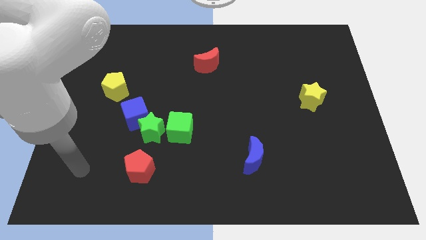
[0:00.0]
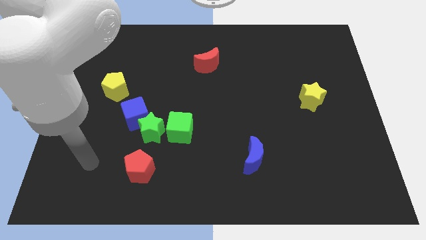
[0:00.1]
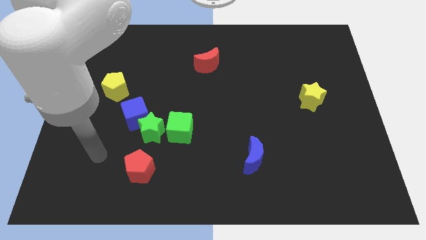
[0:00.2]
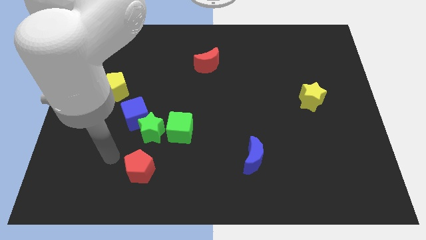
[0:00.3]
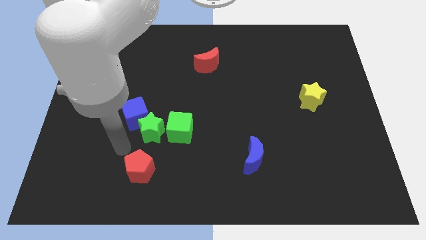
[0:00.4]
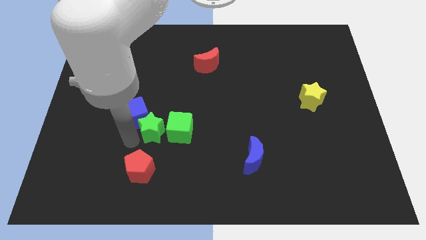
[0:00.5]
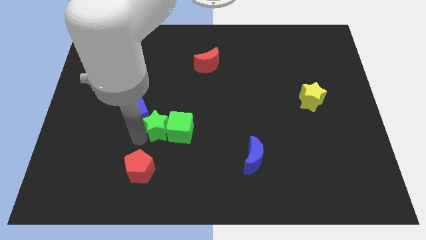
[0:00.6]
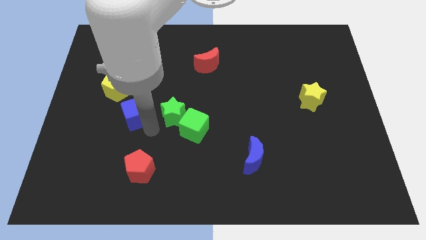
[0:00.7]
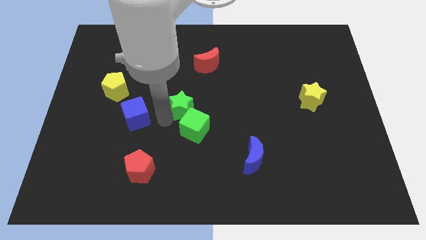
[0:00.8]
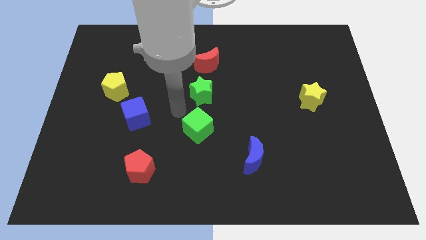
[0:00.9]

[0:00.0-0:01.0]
separate the green cube from the green star

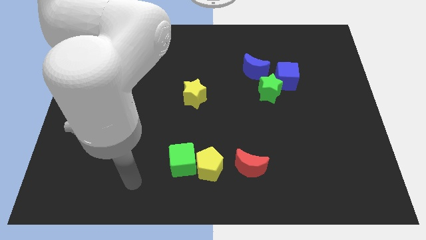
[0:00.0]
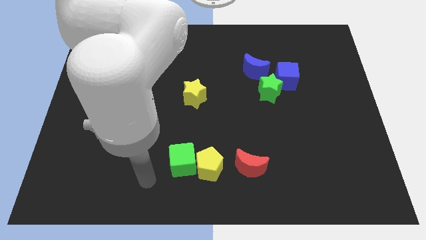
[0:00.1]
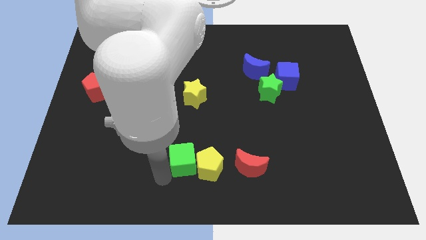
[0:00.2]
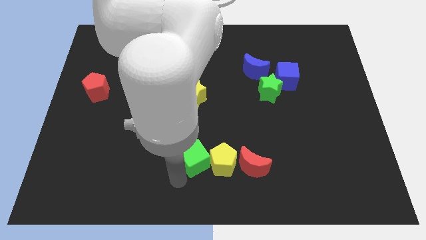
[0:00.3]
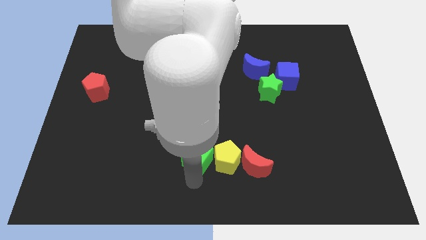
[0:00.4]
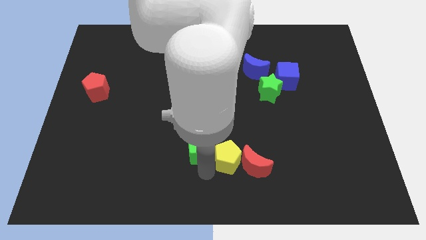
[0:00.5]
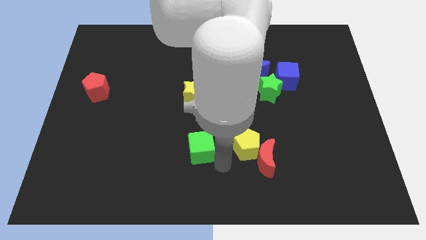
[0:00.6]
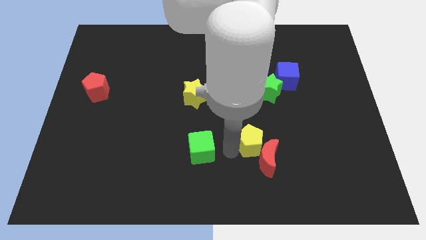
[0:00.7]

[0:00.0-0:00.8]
pull the green cube apart from the yellow pentagon

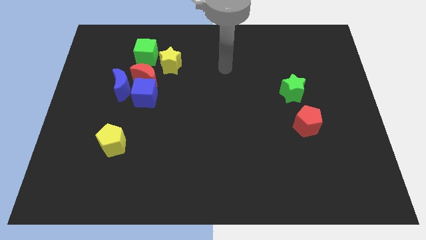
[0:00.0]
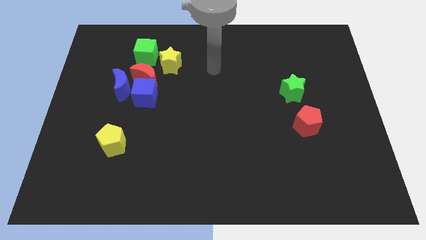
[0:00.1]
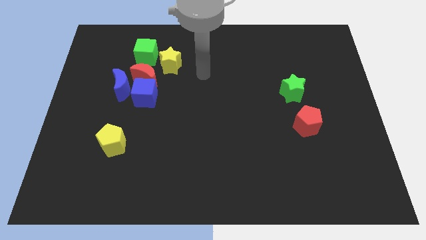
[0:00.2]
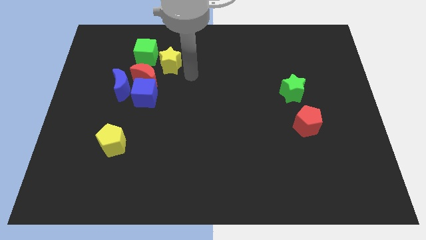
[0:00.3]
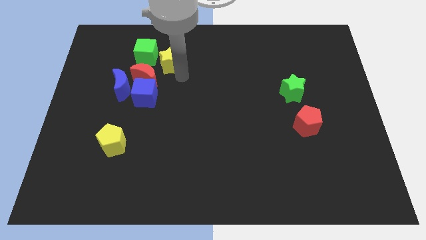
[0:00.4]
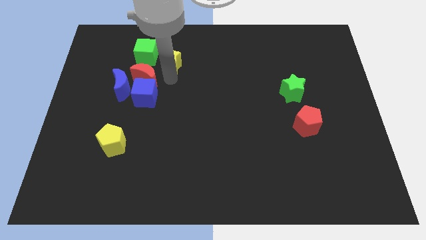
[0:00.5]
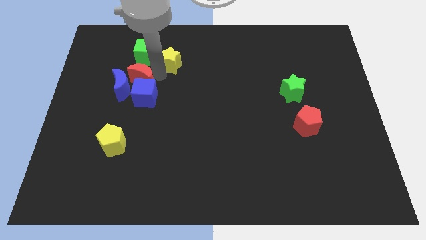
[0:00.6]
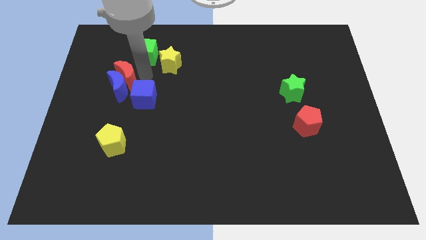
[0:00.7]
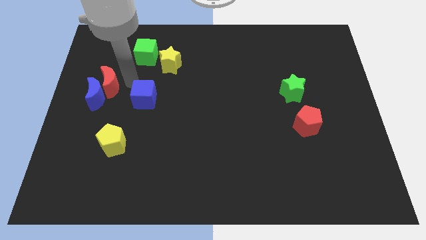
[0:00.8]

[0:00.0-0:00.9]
move the blue cube away from the red moon and blue moon

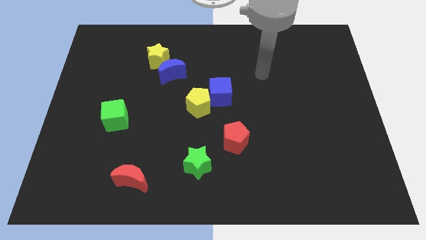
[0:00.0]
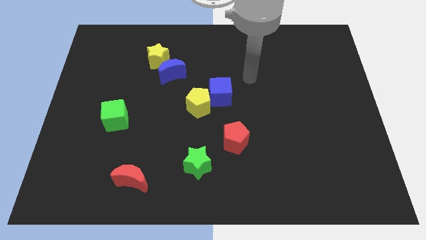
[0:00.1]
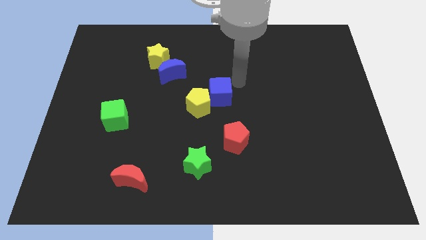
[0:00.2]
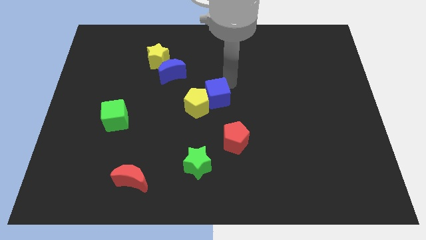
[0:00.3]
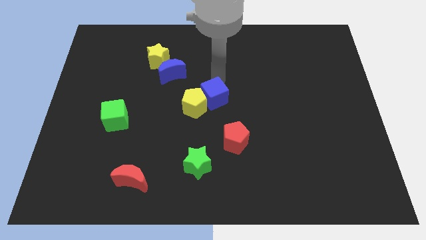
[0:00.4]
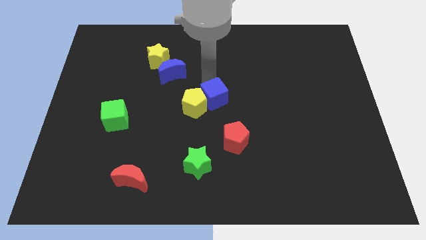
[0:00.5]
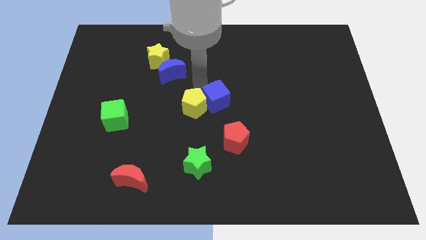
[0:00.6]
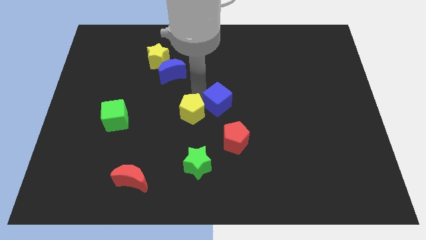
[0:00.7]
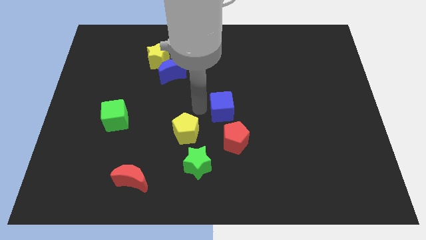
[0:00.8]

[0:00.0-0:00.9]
move the blue cube away from the yellow pentagon

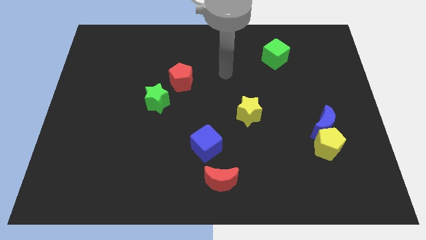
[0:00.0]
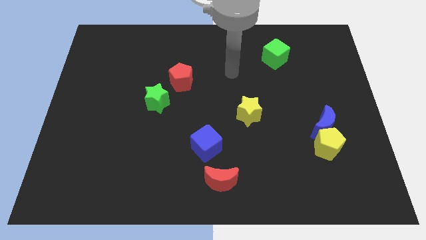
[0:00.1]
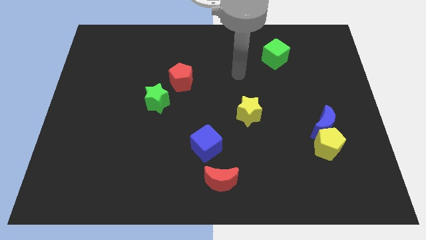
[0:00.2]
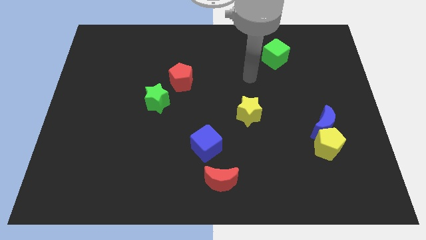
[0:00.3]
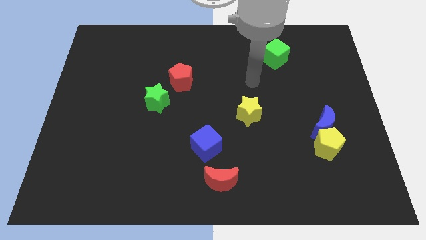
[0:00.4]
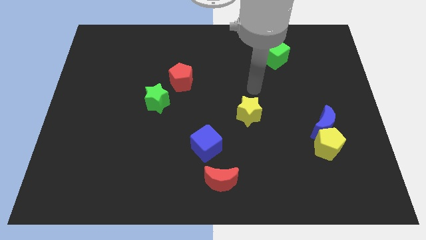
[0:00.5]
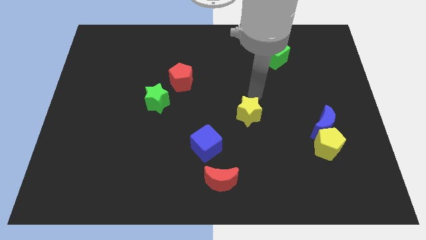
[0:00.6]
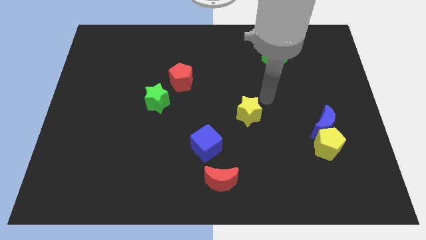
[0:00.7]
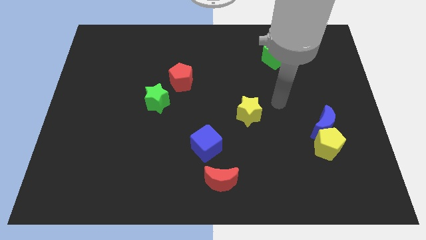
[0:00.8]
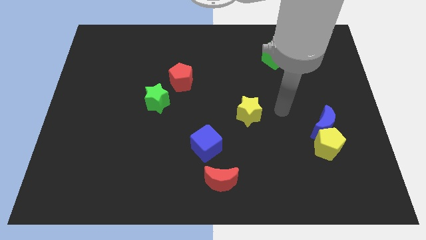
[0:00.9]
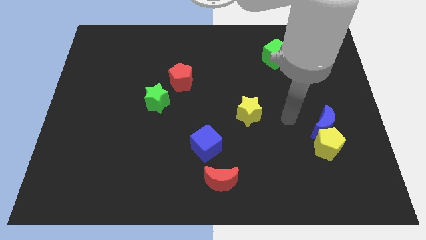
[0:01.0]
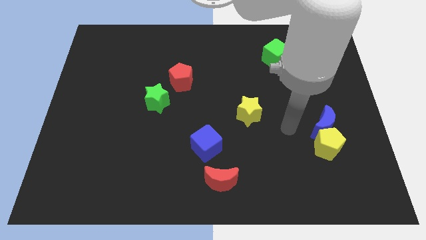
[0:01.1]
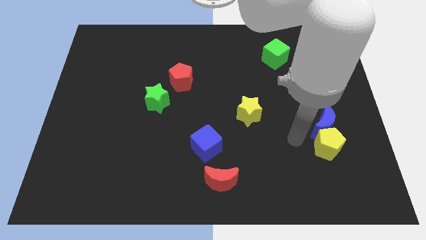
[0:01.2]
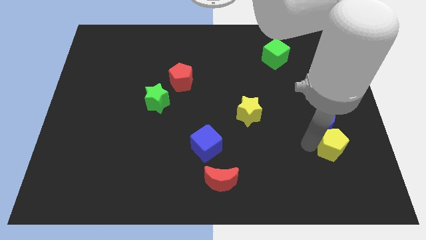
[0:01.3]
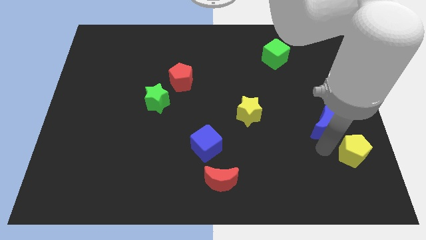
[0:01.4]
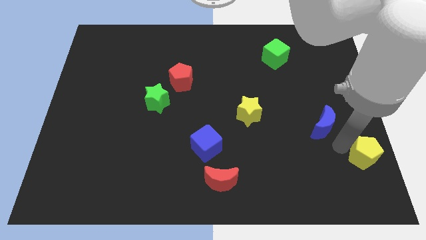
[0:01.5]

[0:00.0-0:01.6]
move the blue moon away from the yellow pentagon

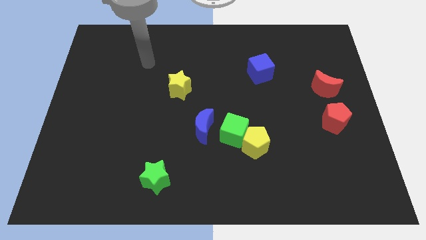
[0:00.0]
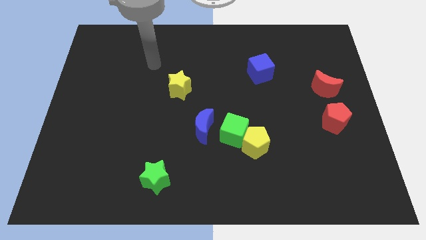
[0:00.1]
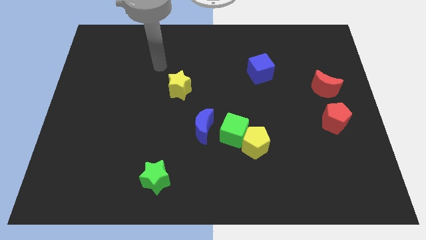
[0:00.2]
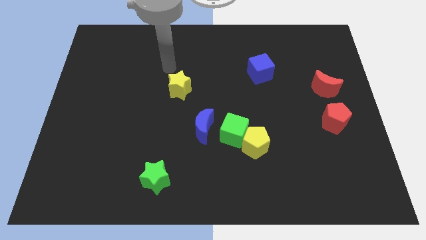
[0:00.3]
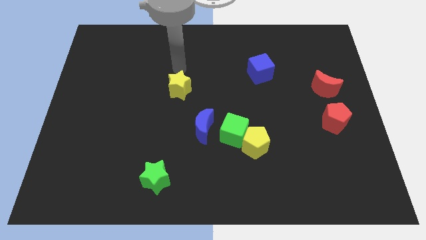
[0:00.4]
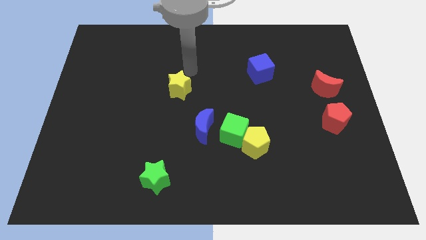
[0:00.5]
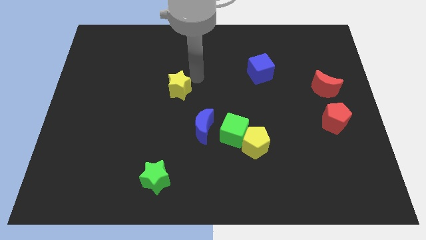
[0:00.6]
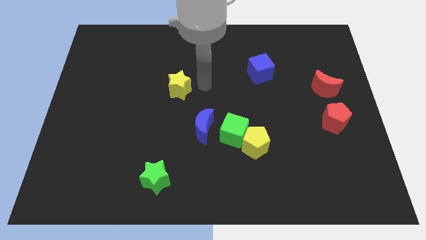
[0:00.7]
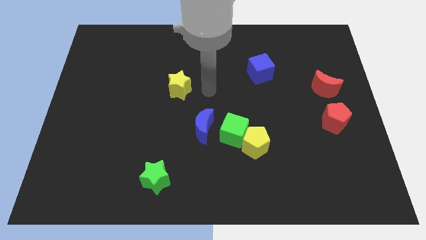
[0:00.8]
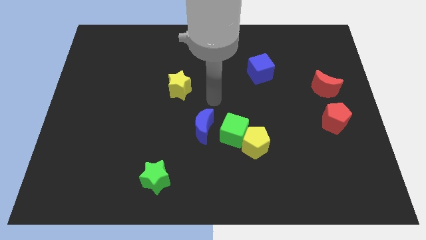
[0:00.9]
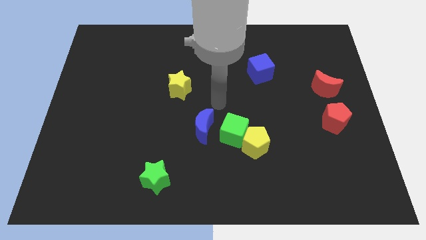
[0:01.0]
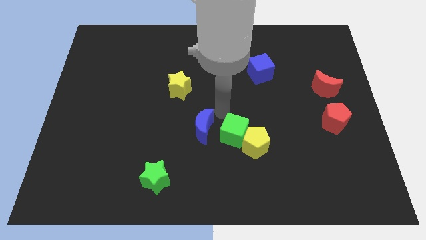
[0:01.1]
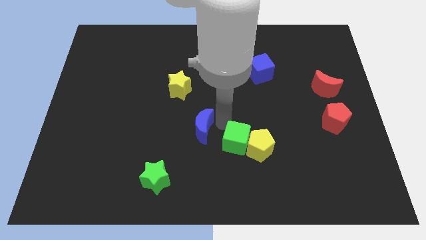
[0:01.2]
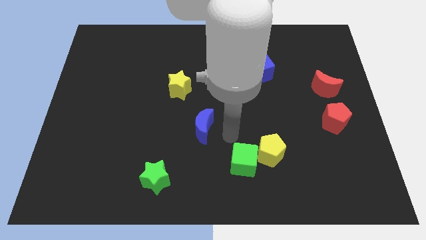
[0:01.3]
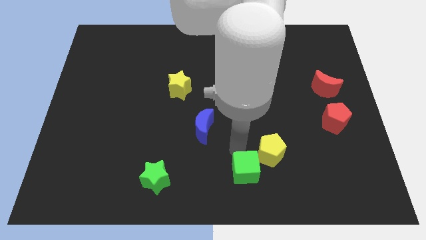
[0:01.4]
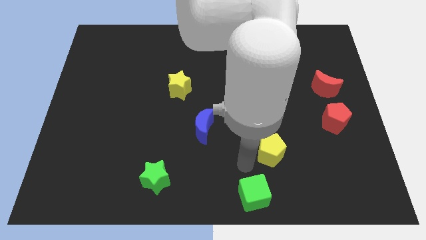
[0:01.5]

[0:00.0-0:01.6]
separate the yellow pentagon from the green cube

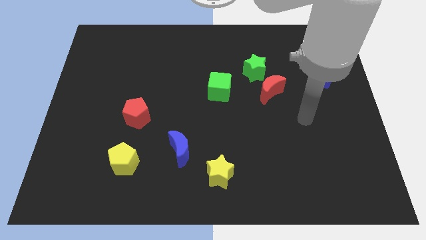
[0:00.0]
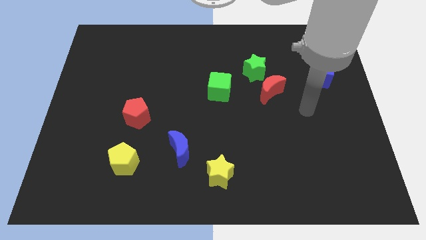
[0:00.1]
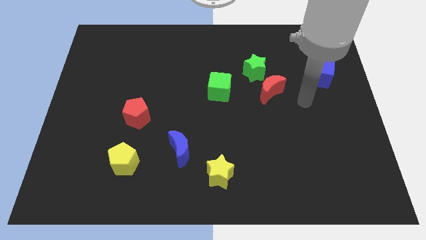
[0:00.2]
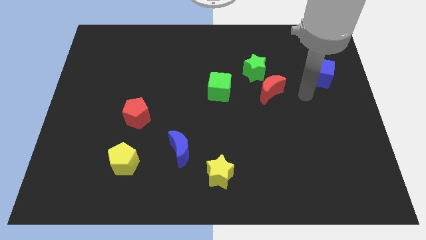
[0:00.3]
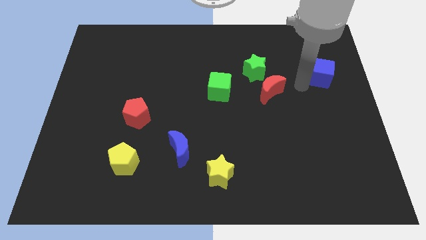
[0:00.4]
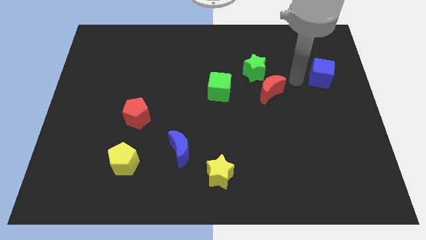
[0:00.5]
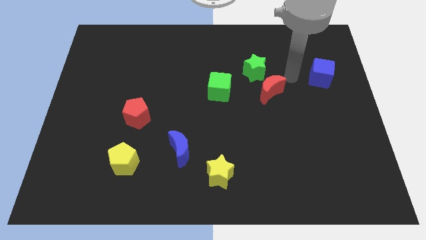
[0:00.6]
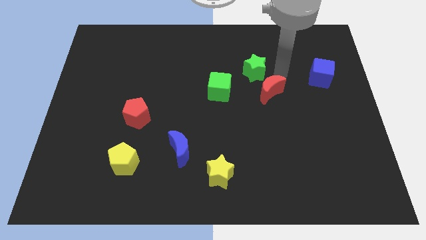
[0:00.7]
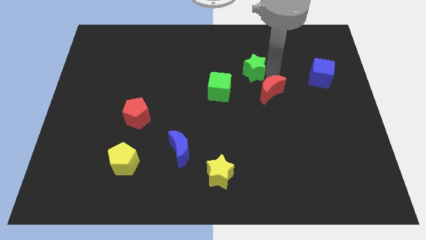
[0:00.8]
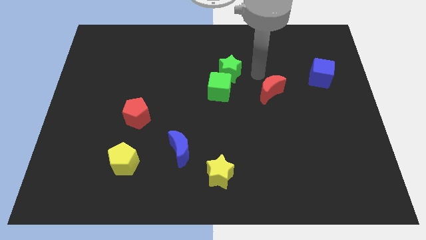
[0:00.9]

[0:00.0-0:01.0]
separate the red moon from the green star

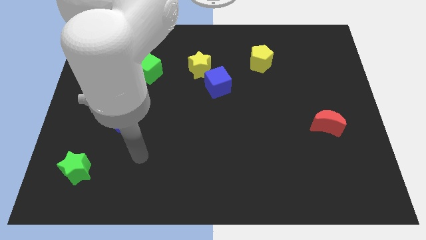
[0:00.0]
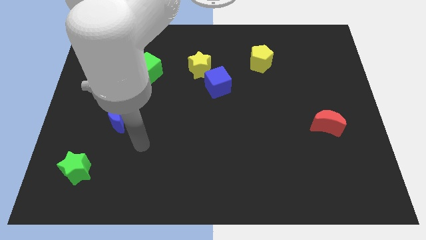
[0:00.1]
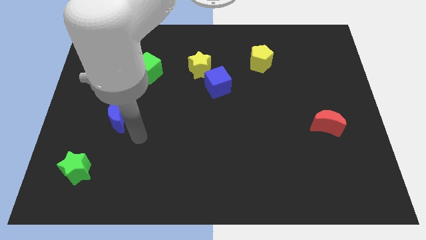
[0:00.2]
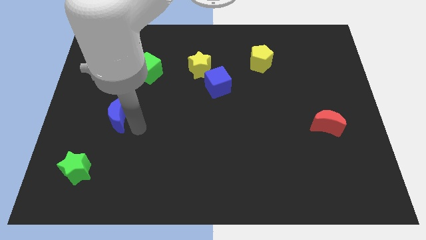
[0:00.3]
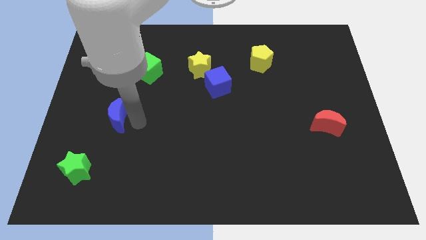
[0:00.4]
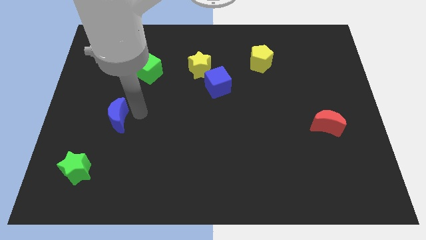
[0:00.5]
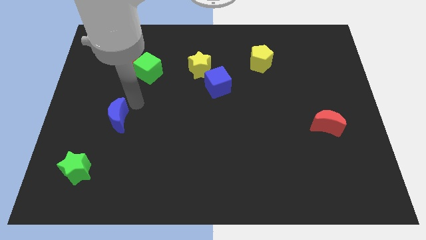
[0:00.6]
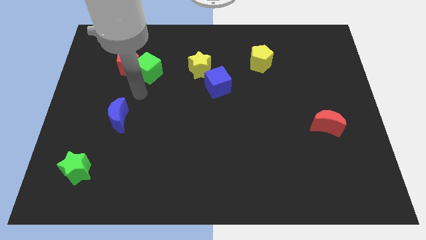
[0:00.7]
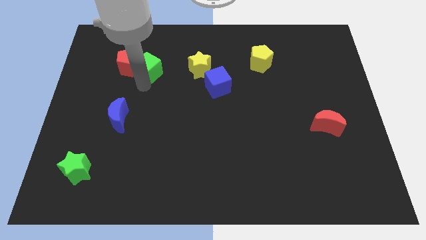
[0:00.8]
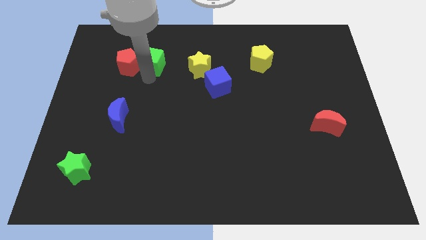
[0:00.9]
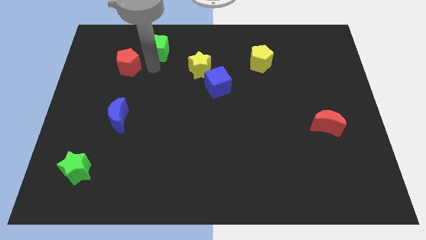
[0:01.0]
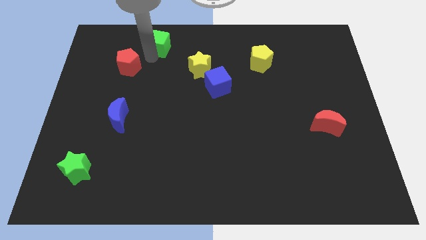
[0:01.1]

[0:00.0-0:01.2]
separate the red pentagon from the green cube

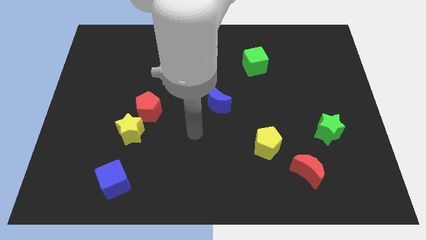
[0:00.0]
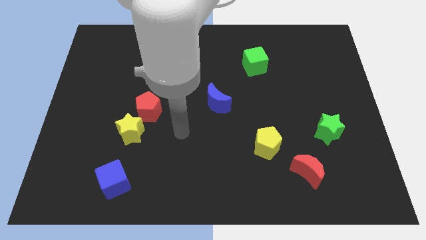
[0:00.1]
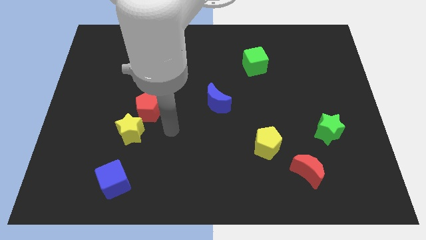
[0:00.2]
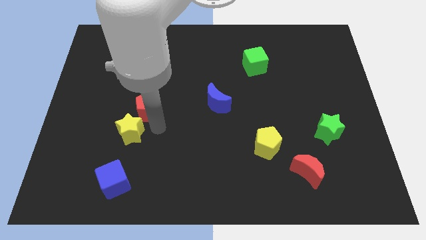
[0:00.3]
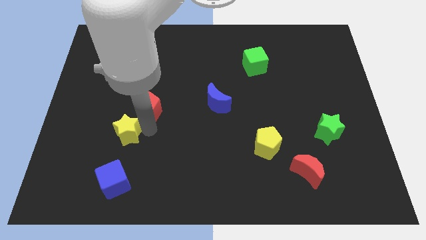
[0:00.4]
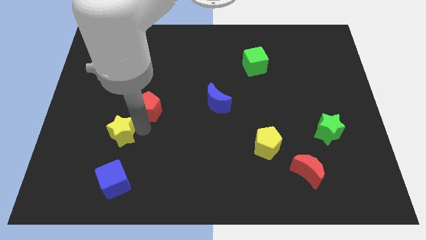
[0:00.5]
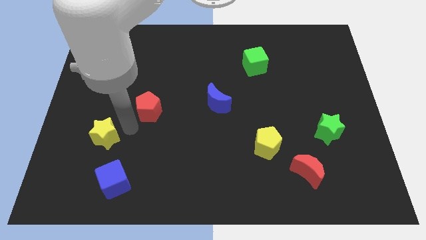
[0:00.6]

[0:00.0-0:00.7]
pull the red pentagon apart from the yellow star
